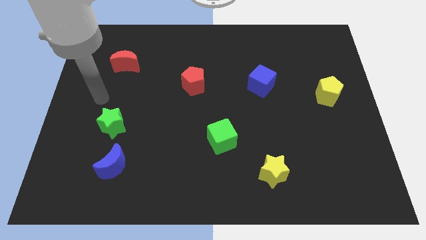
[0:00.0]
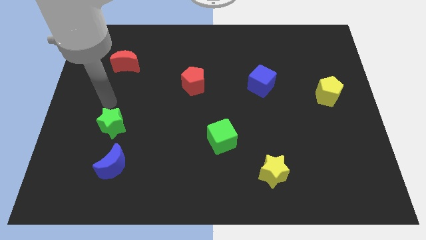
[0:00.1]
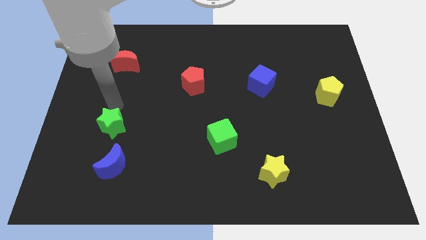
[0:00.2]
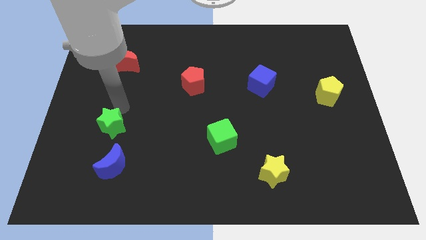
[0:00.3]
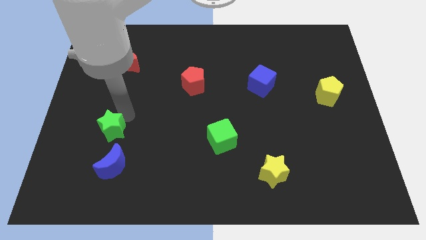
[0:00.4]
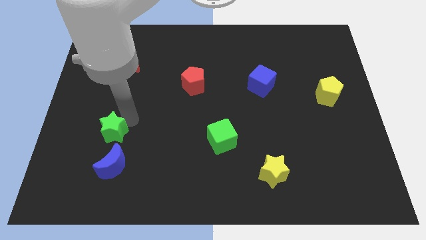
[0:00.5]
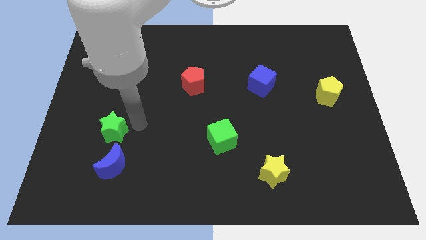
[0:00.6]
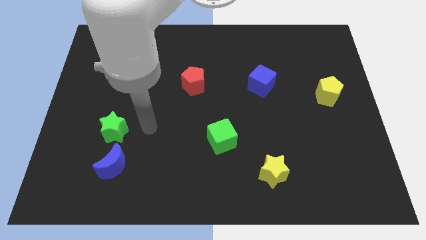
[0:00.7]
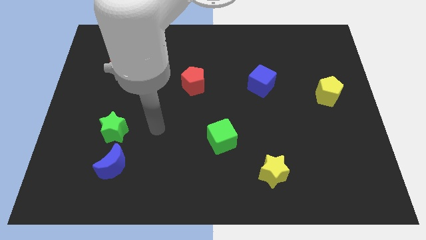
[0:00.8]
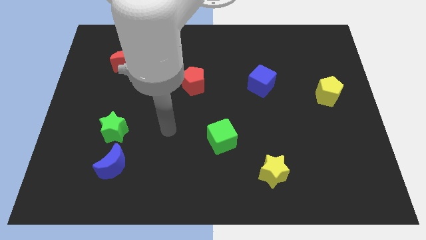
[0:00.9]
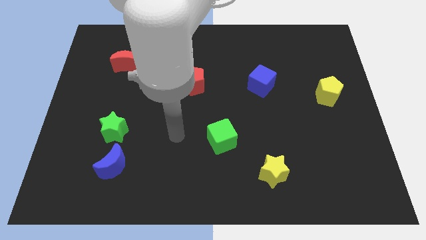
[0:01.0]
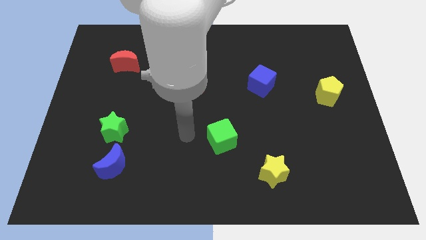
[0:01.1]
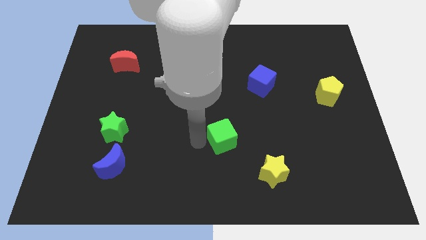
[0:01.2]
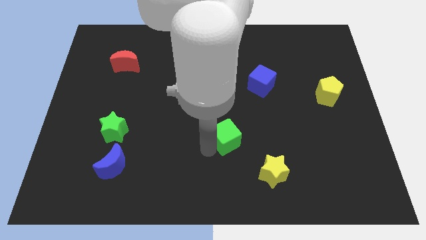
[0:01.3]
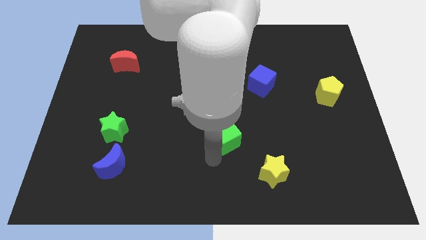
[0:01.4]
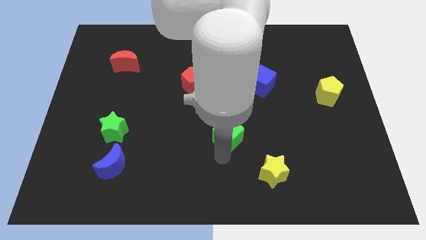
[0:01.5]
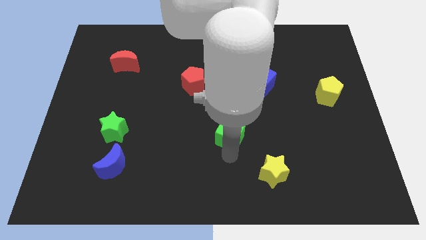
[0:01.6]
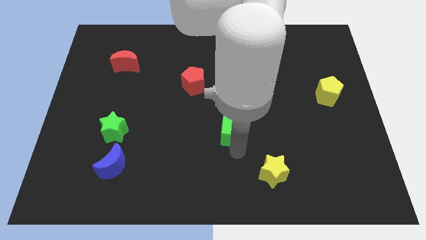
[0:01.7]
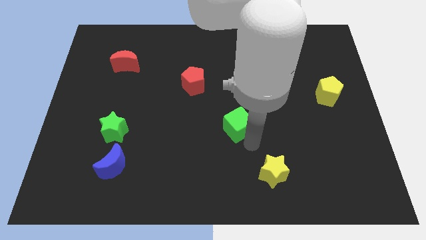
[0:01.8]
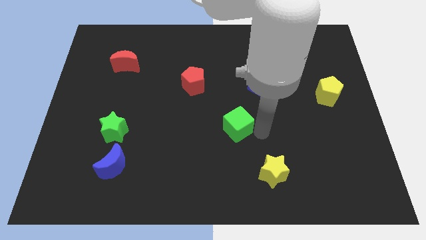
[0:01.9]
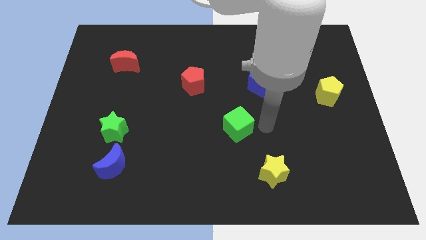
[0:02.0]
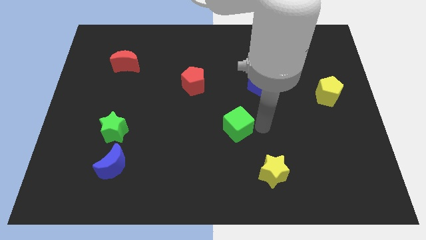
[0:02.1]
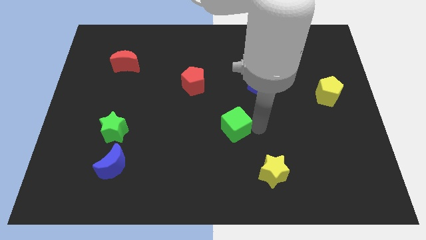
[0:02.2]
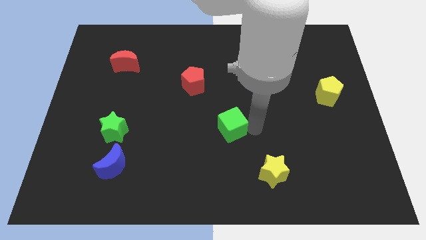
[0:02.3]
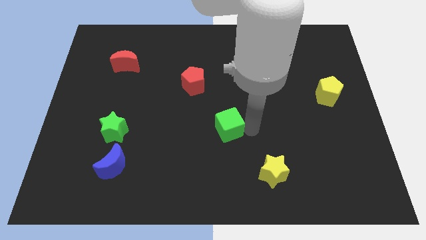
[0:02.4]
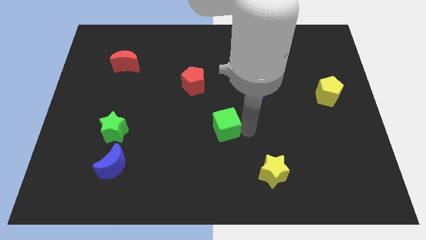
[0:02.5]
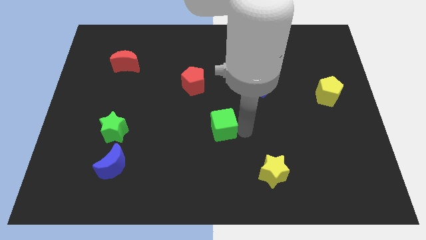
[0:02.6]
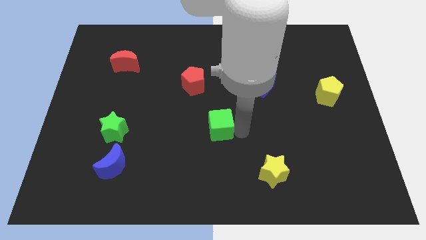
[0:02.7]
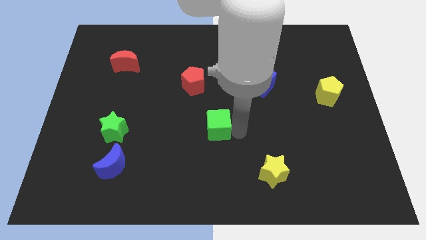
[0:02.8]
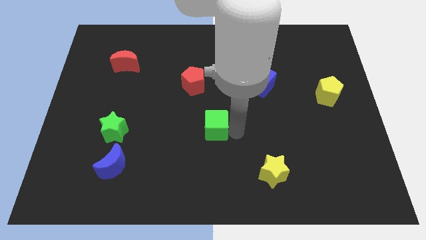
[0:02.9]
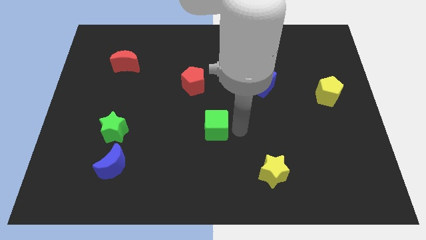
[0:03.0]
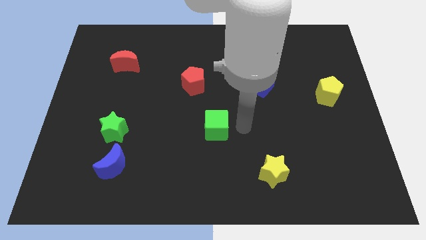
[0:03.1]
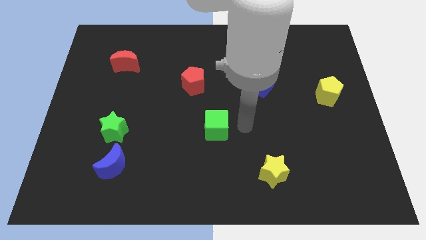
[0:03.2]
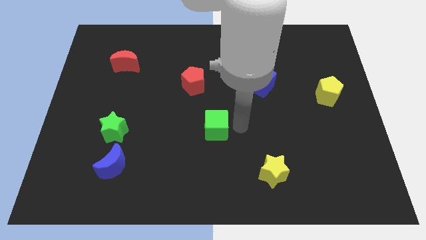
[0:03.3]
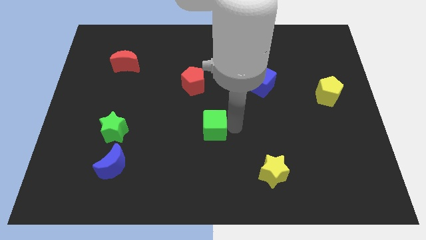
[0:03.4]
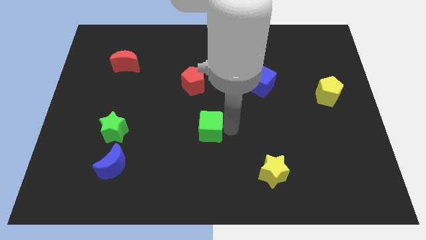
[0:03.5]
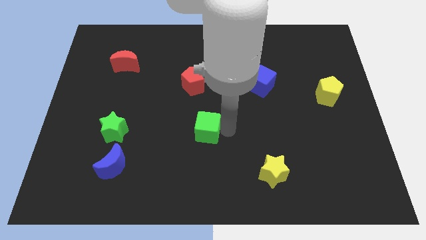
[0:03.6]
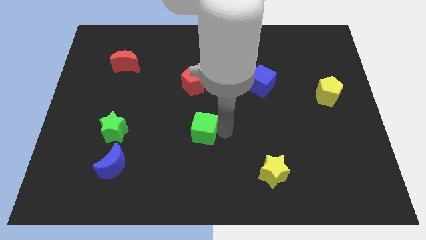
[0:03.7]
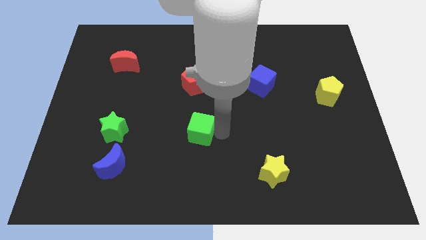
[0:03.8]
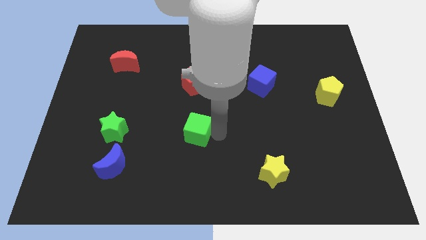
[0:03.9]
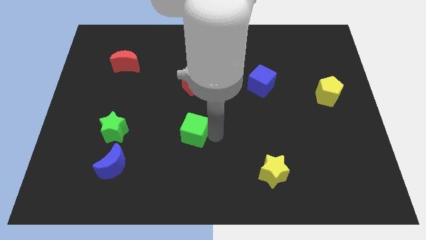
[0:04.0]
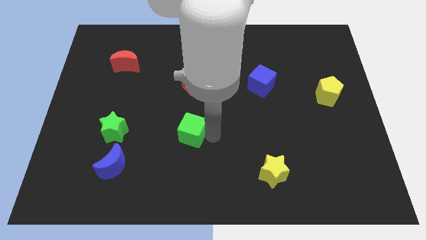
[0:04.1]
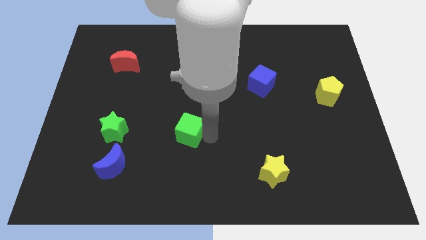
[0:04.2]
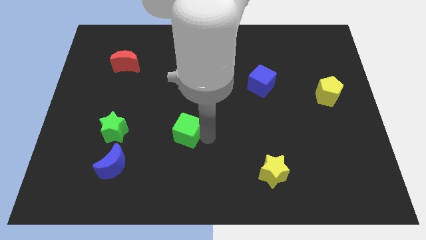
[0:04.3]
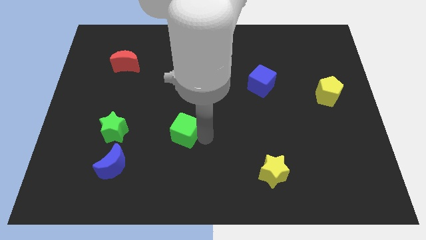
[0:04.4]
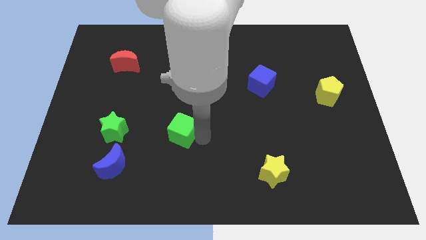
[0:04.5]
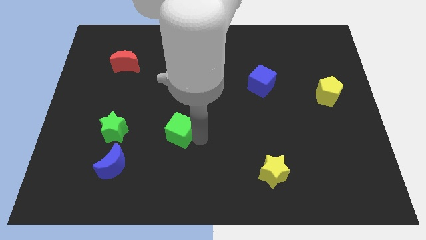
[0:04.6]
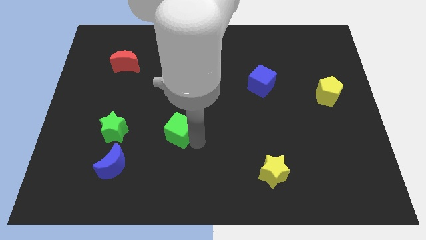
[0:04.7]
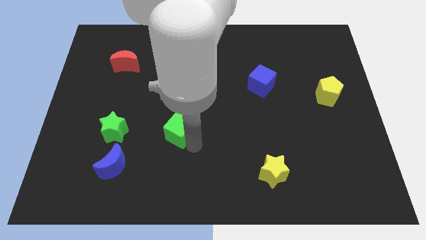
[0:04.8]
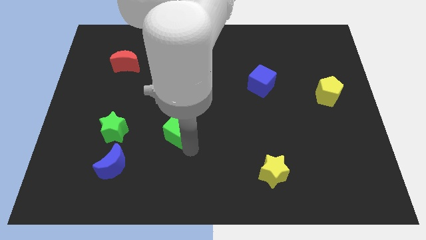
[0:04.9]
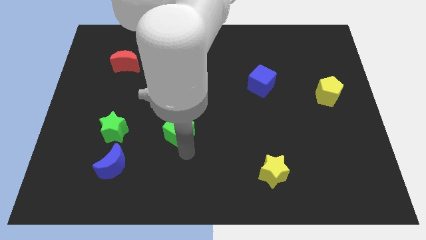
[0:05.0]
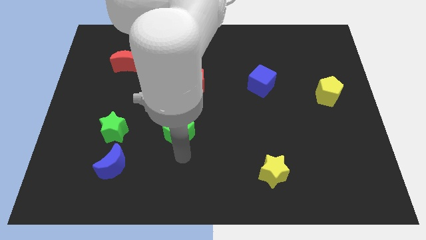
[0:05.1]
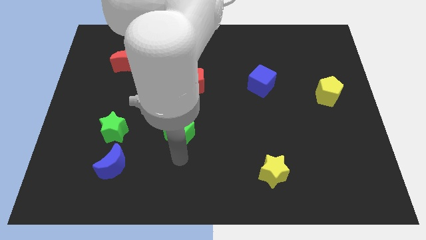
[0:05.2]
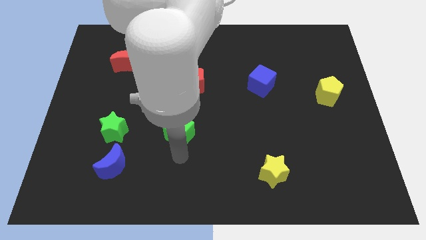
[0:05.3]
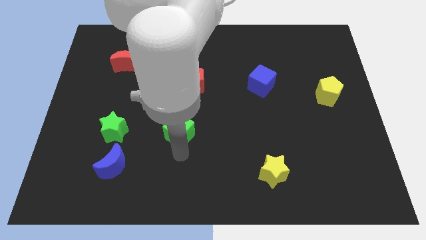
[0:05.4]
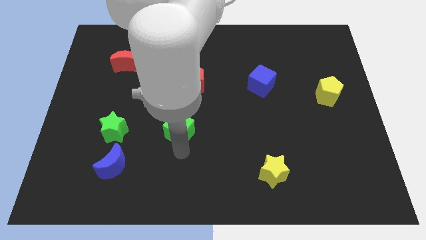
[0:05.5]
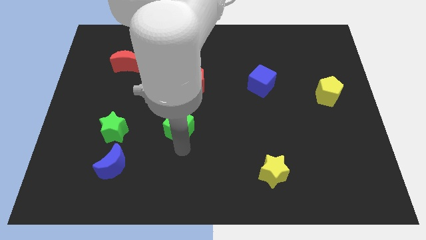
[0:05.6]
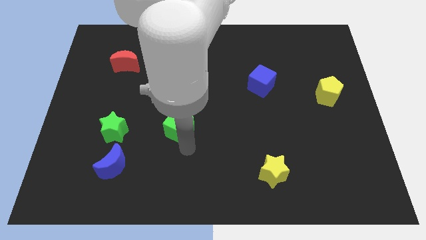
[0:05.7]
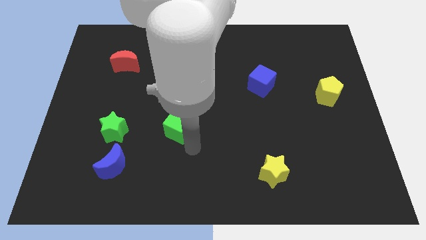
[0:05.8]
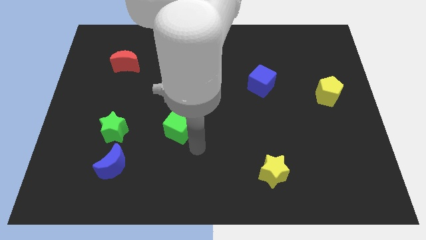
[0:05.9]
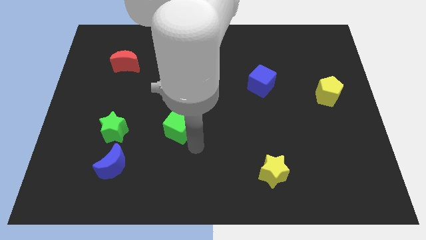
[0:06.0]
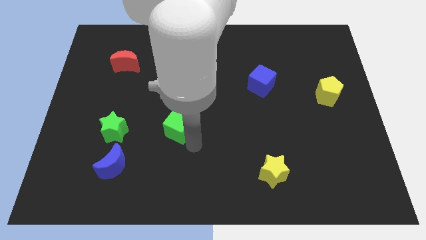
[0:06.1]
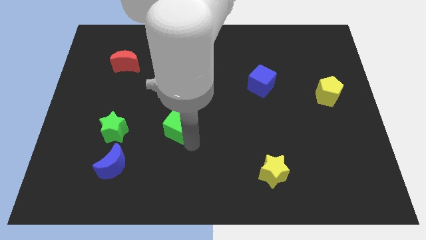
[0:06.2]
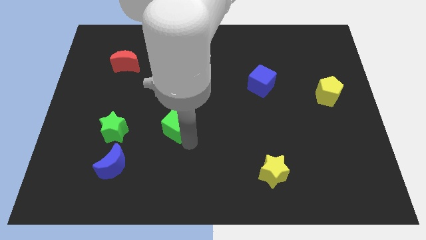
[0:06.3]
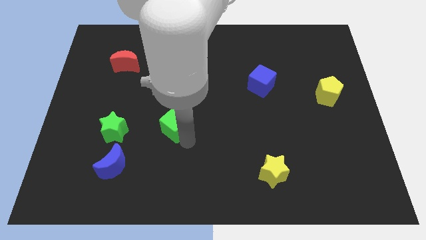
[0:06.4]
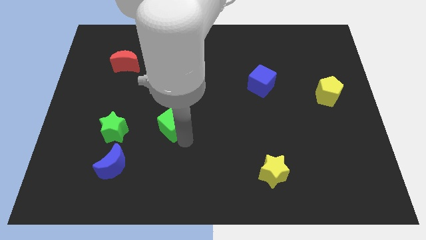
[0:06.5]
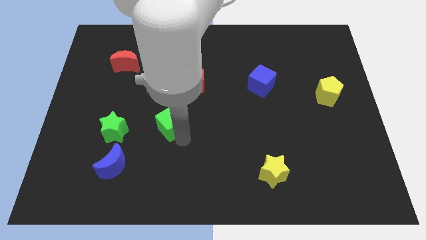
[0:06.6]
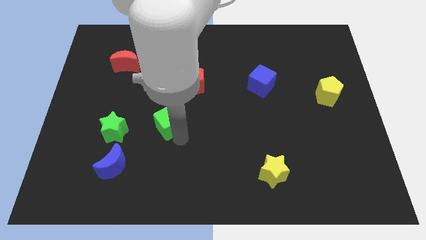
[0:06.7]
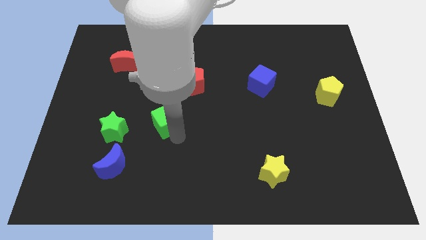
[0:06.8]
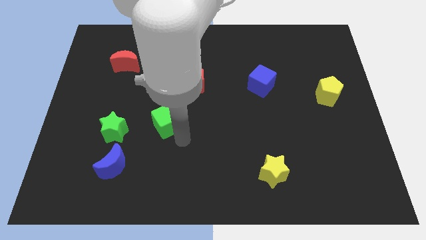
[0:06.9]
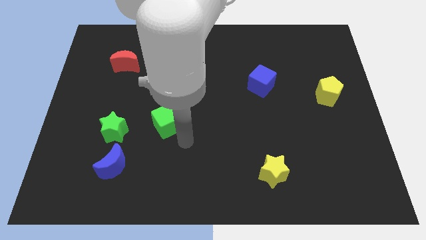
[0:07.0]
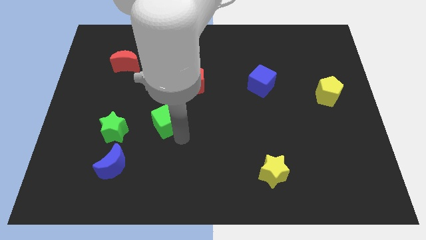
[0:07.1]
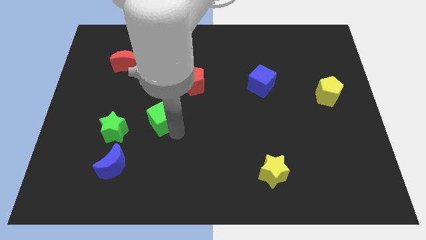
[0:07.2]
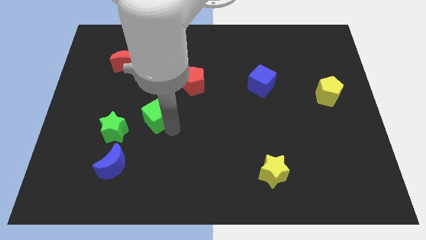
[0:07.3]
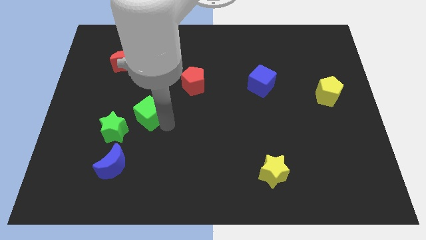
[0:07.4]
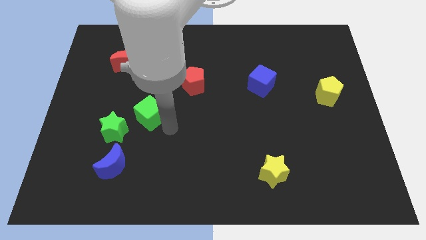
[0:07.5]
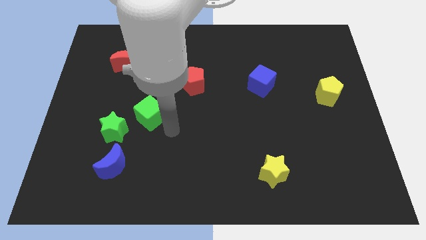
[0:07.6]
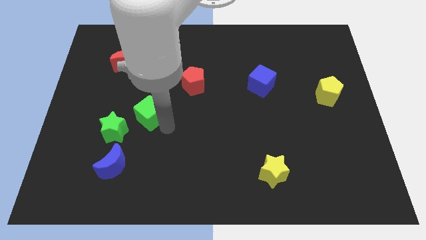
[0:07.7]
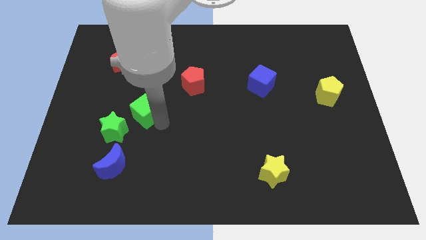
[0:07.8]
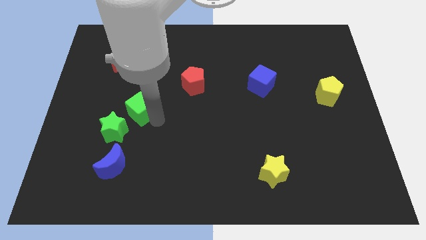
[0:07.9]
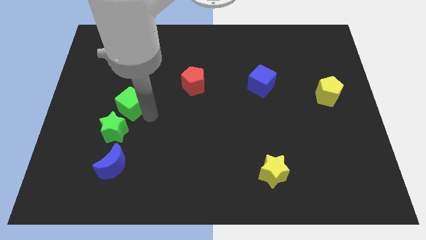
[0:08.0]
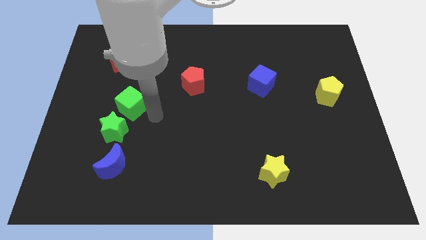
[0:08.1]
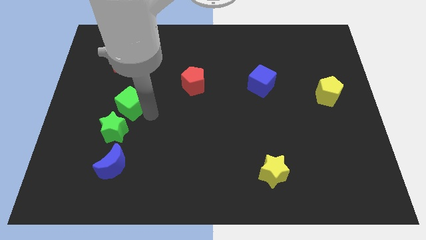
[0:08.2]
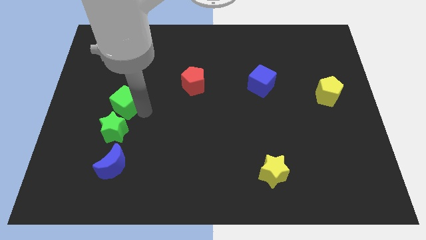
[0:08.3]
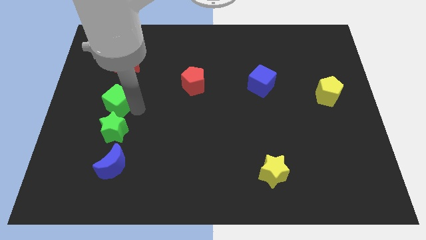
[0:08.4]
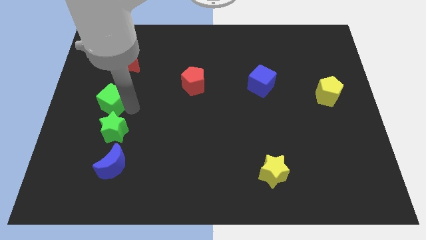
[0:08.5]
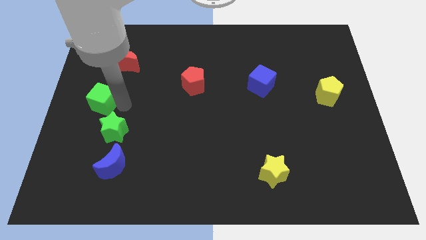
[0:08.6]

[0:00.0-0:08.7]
slide the green cube to the left side
